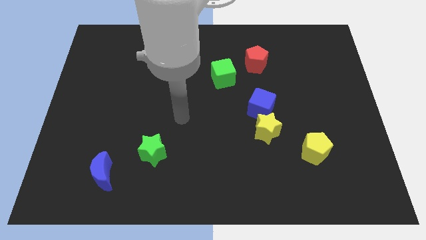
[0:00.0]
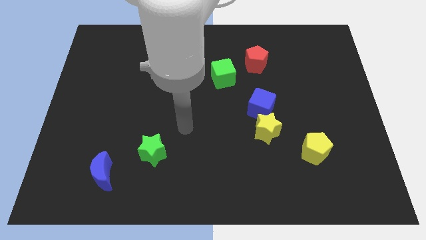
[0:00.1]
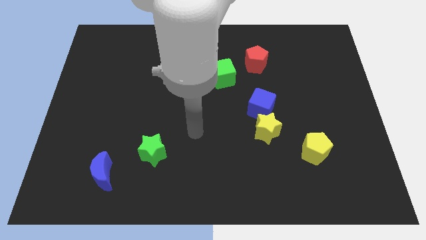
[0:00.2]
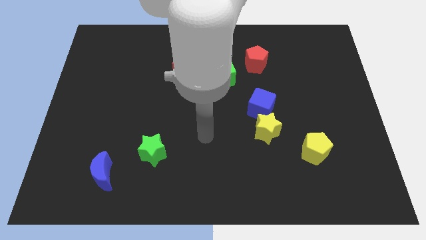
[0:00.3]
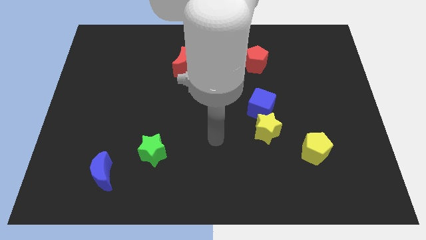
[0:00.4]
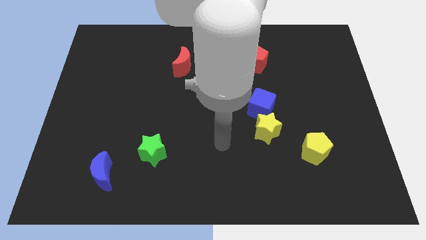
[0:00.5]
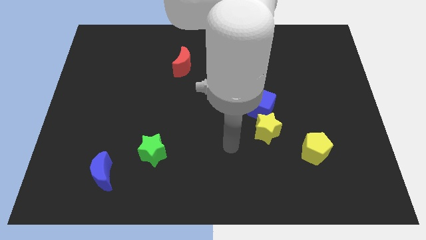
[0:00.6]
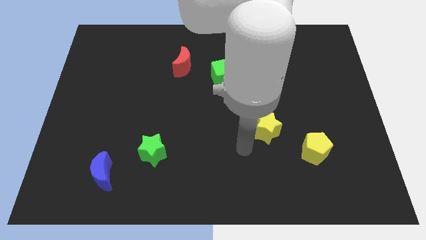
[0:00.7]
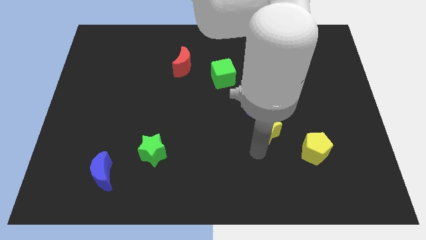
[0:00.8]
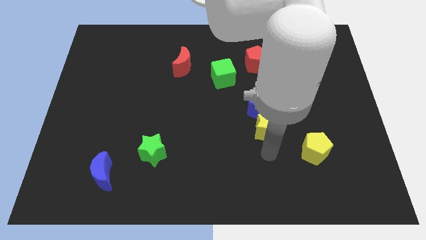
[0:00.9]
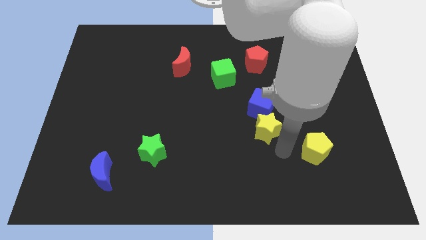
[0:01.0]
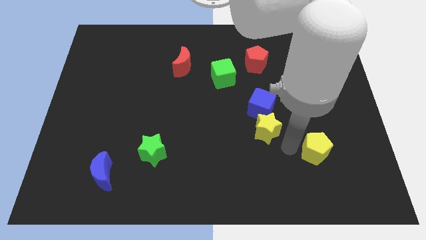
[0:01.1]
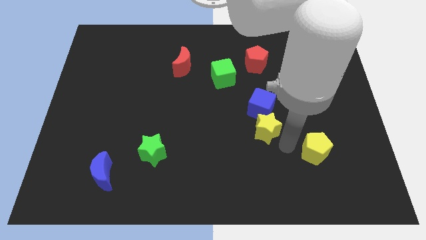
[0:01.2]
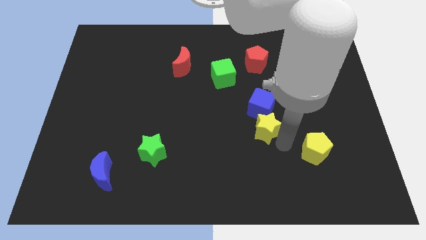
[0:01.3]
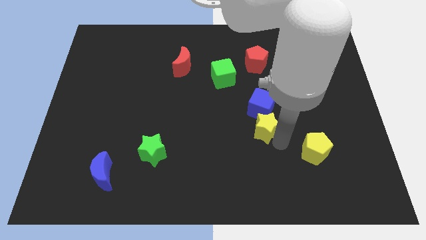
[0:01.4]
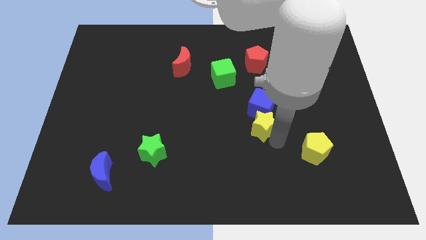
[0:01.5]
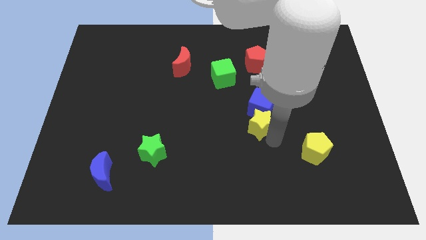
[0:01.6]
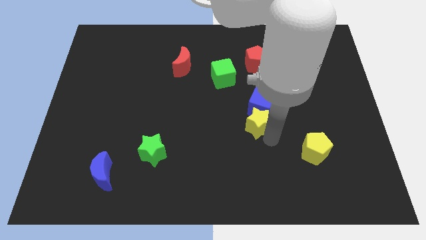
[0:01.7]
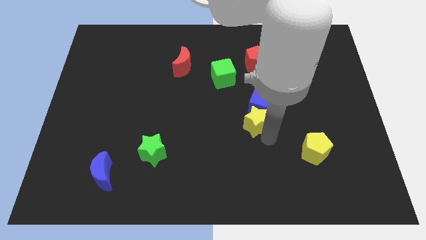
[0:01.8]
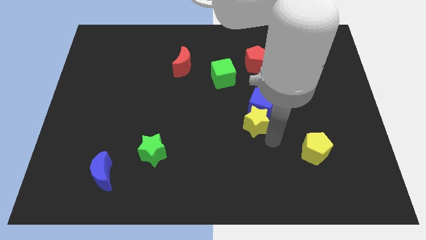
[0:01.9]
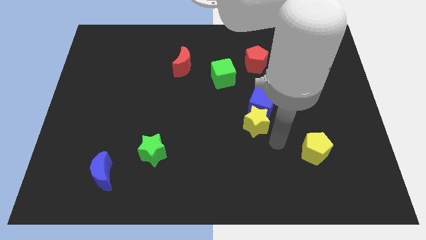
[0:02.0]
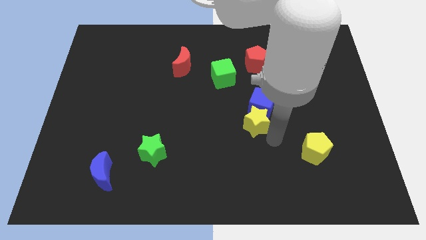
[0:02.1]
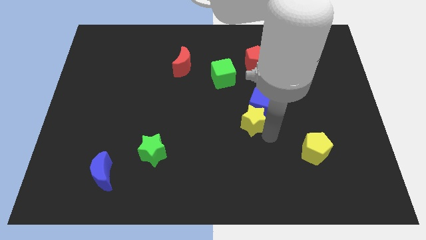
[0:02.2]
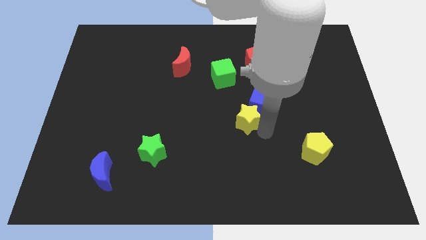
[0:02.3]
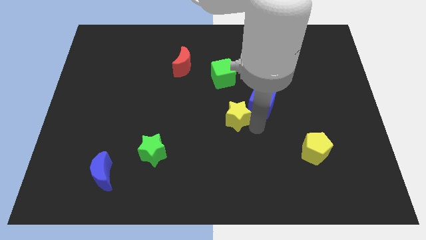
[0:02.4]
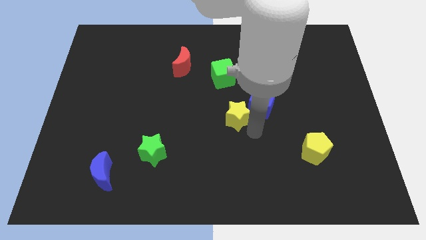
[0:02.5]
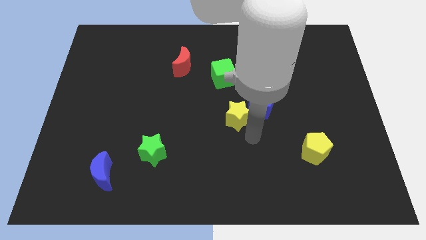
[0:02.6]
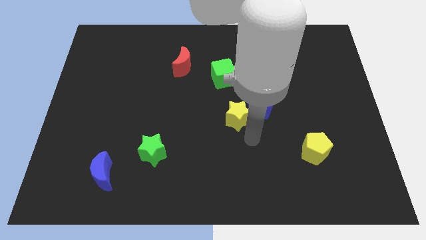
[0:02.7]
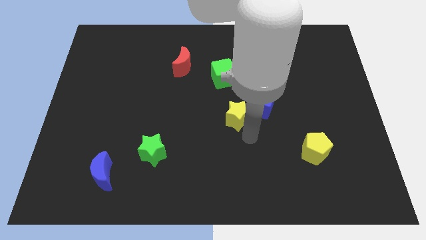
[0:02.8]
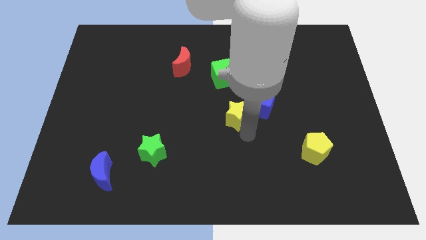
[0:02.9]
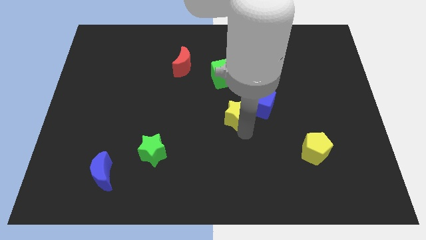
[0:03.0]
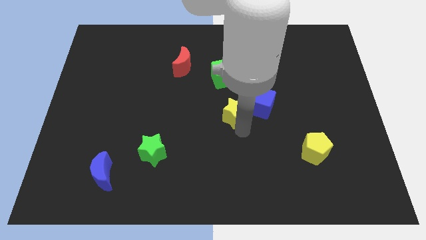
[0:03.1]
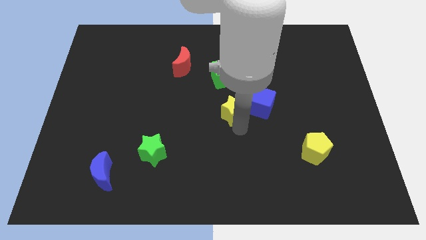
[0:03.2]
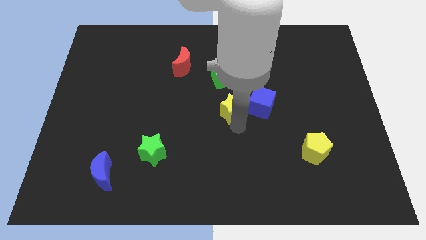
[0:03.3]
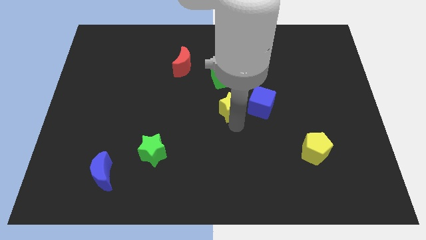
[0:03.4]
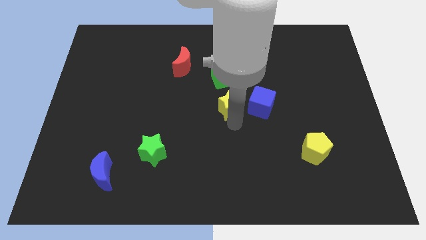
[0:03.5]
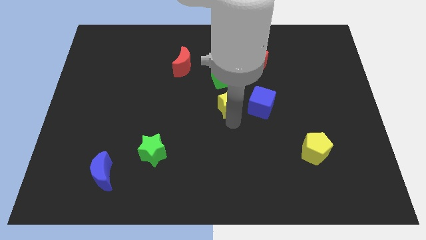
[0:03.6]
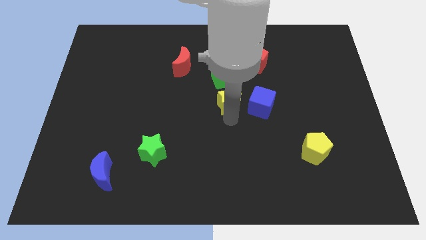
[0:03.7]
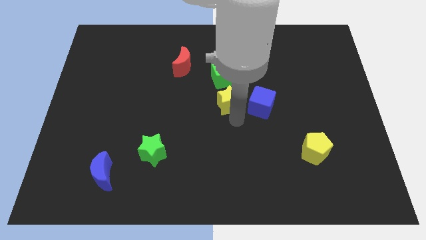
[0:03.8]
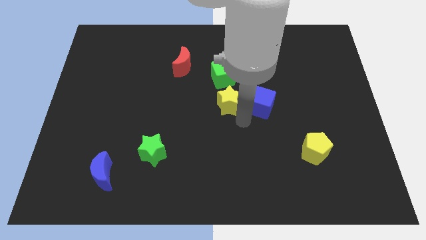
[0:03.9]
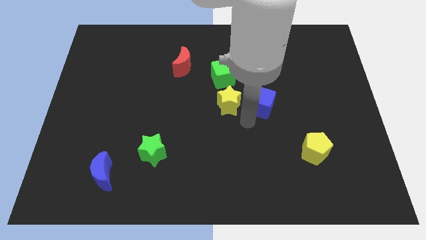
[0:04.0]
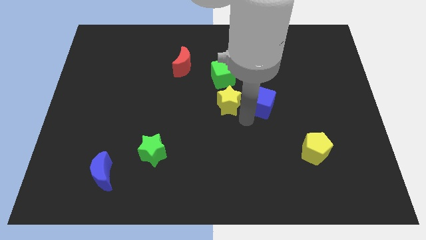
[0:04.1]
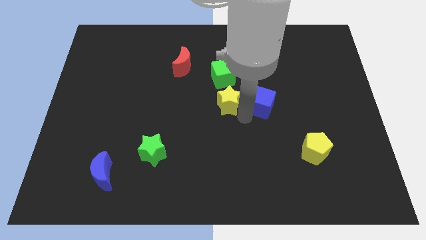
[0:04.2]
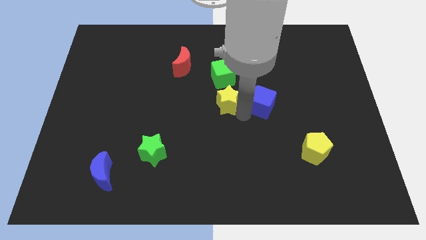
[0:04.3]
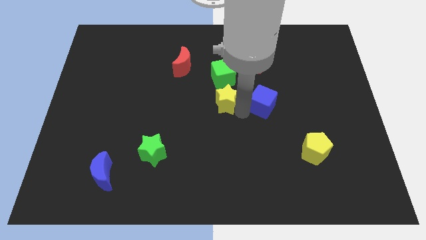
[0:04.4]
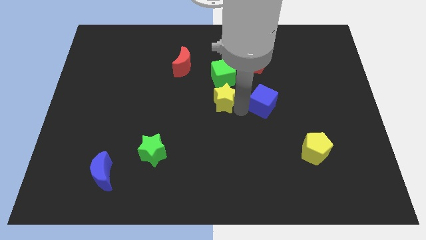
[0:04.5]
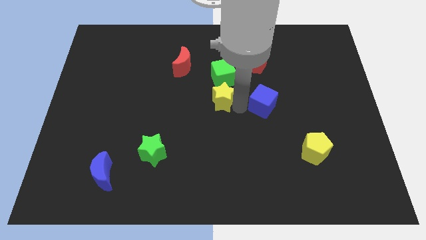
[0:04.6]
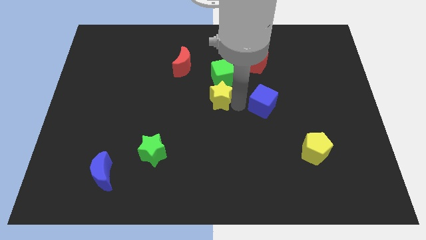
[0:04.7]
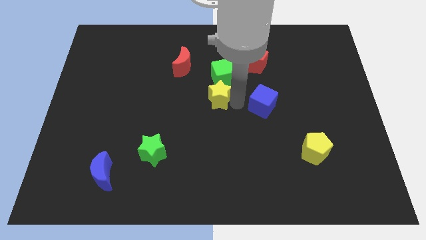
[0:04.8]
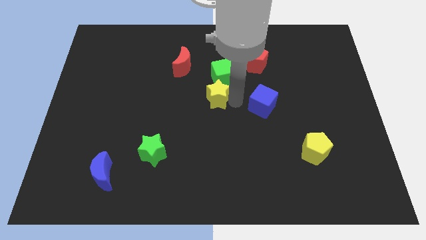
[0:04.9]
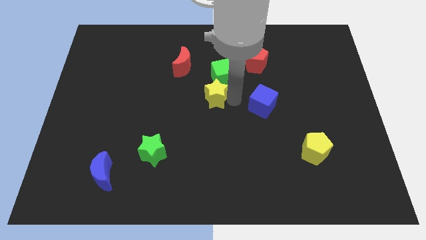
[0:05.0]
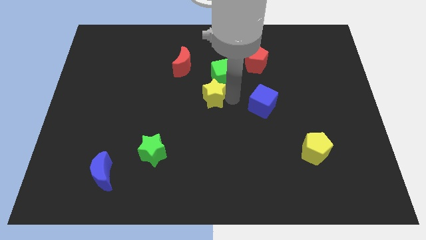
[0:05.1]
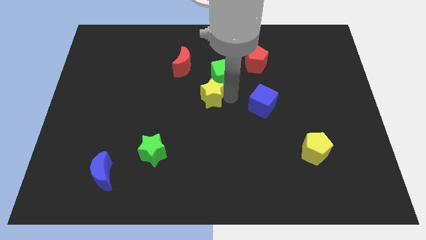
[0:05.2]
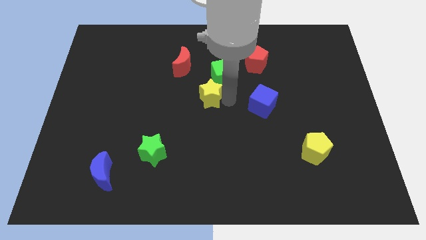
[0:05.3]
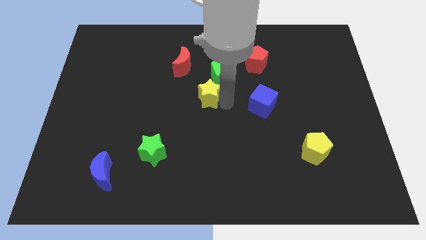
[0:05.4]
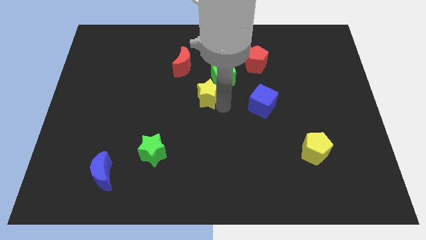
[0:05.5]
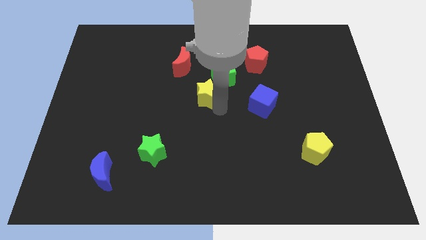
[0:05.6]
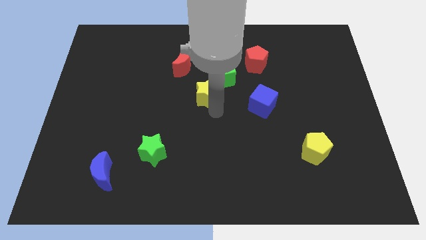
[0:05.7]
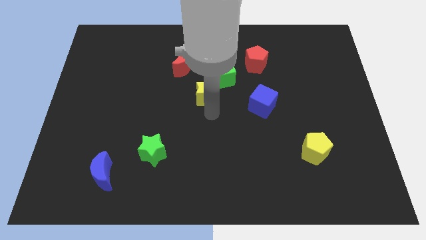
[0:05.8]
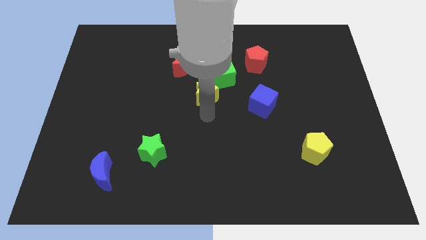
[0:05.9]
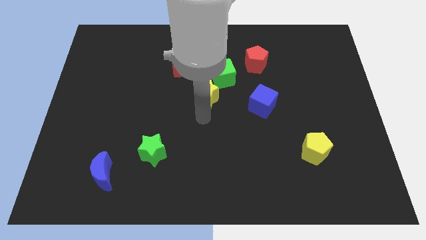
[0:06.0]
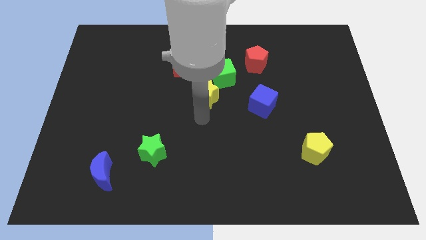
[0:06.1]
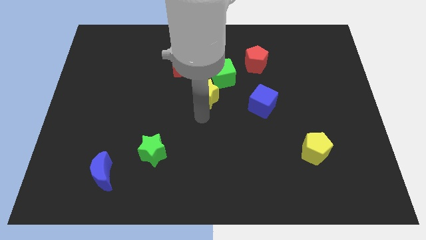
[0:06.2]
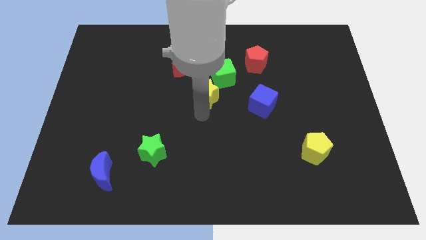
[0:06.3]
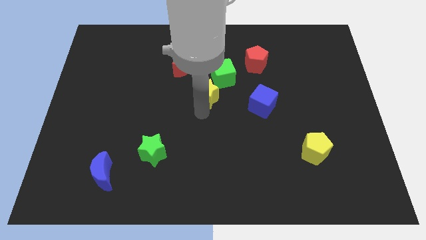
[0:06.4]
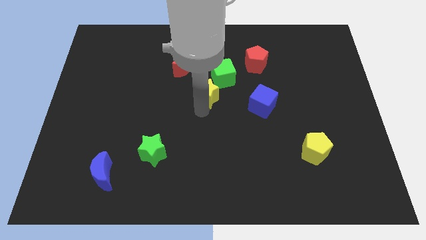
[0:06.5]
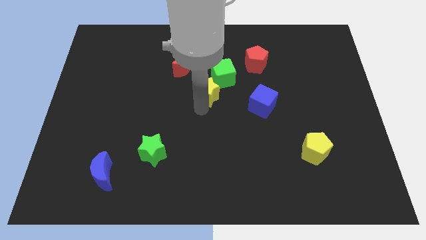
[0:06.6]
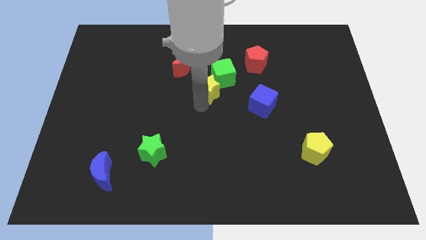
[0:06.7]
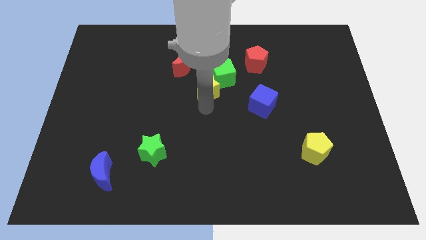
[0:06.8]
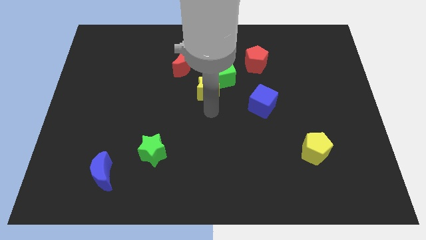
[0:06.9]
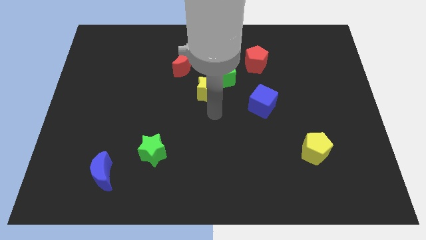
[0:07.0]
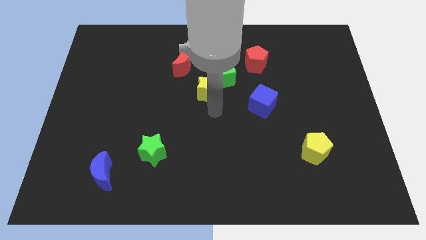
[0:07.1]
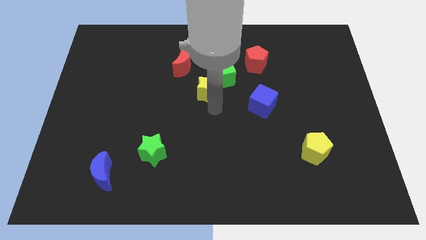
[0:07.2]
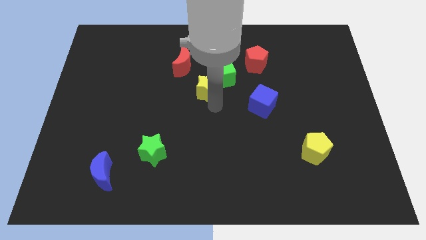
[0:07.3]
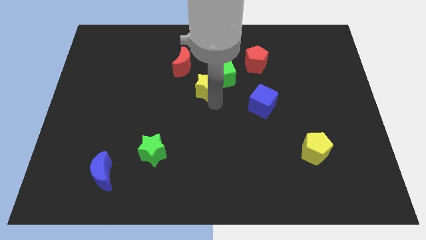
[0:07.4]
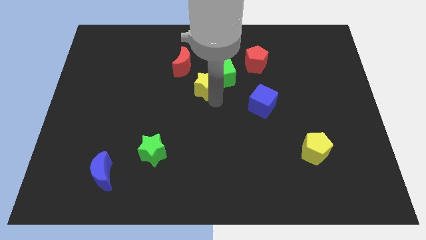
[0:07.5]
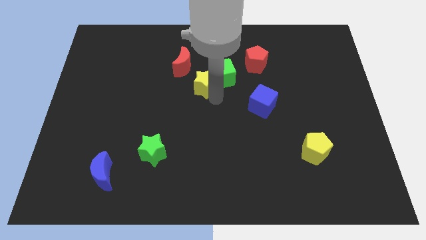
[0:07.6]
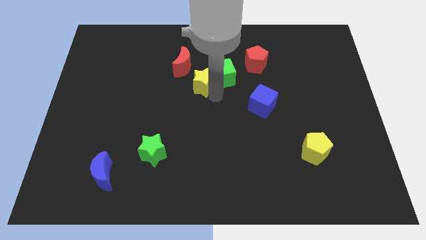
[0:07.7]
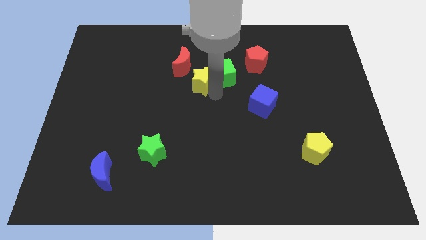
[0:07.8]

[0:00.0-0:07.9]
push the yellow star up and left

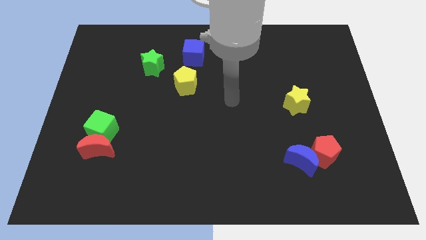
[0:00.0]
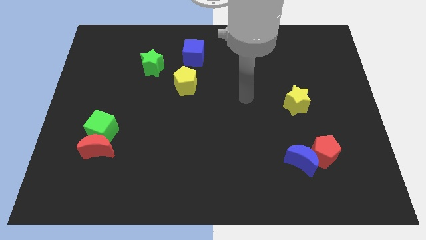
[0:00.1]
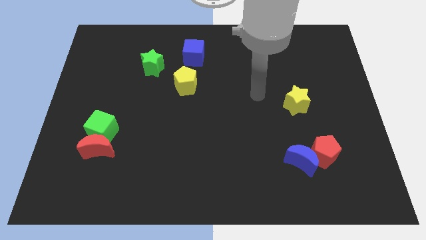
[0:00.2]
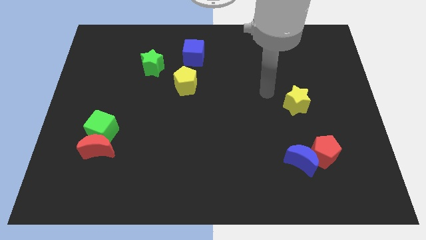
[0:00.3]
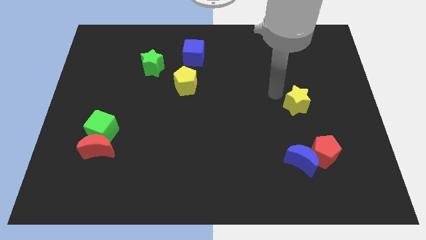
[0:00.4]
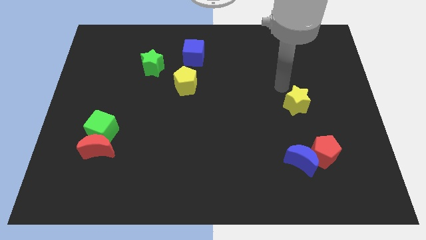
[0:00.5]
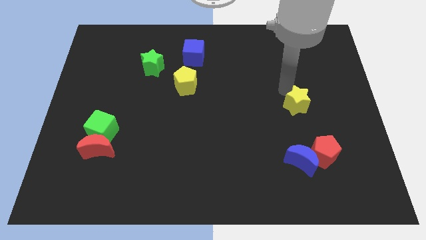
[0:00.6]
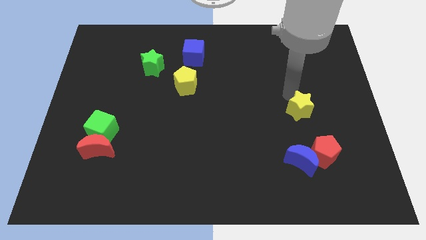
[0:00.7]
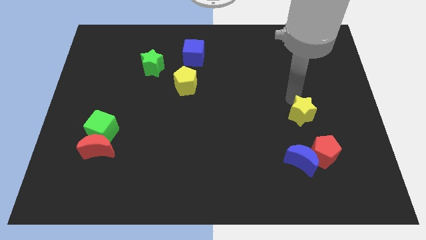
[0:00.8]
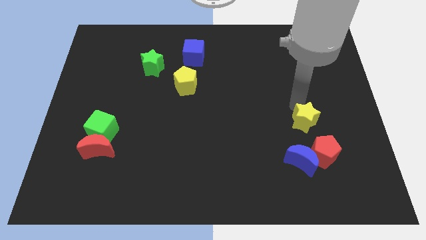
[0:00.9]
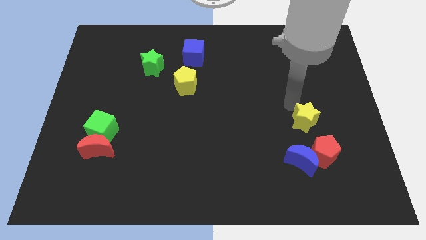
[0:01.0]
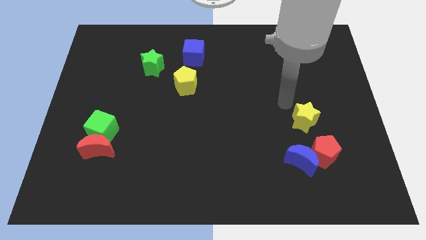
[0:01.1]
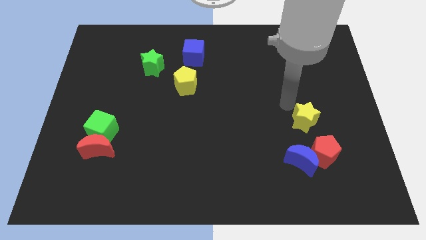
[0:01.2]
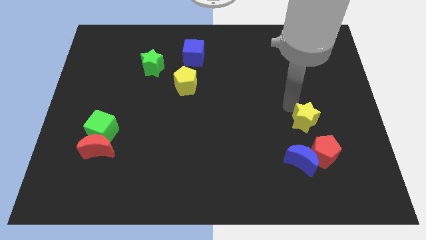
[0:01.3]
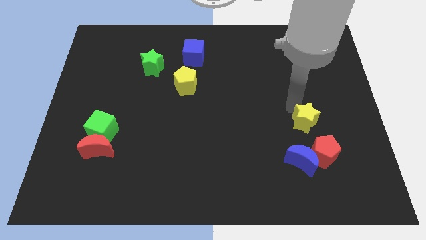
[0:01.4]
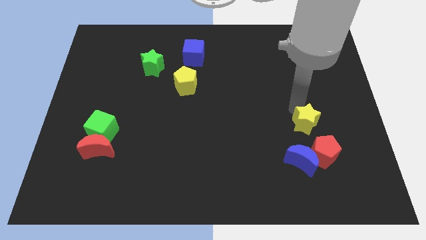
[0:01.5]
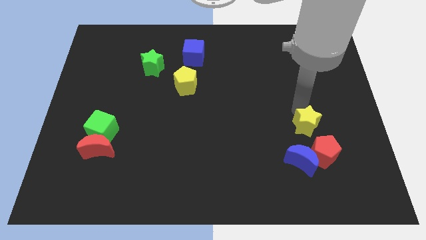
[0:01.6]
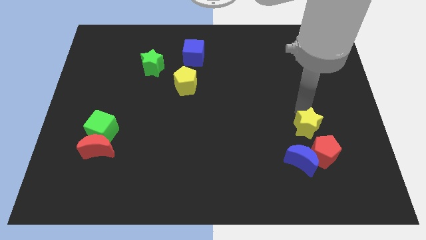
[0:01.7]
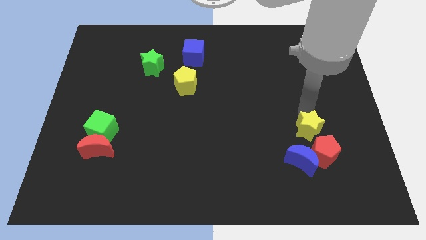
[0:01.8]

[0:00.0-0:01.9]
slightly push the yellow star down
